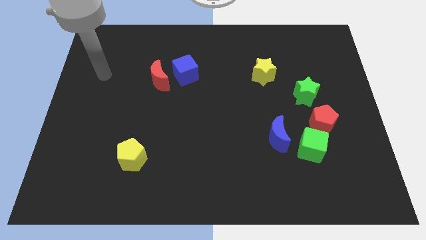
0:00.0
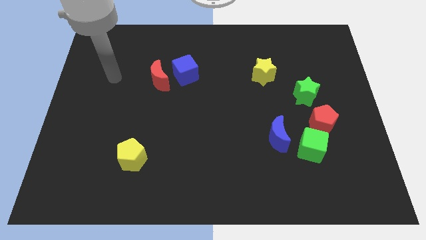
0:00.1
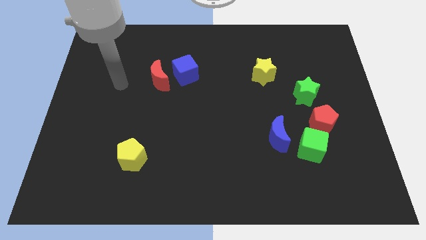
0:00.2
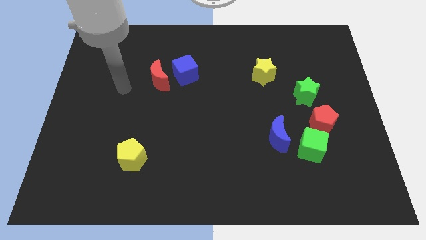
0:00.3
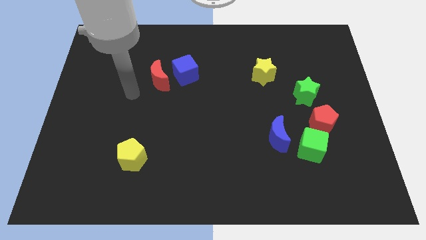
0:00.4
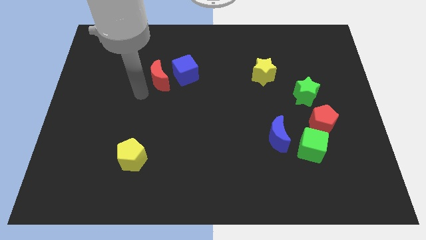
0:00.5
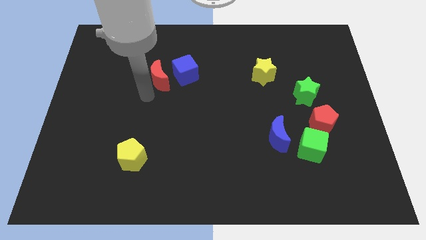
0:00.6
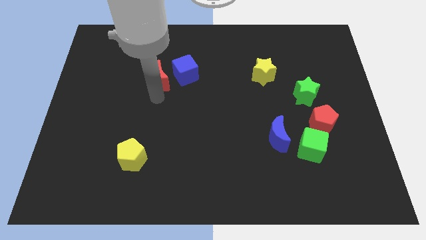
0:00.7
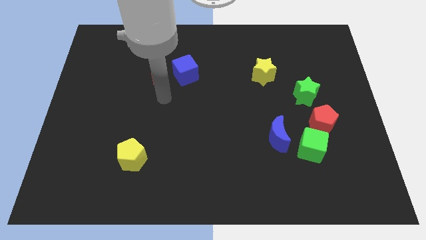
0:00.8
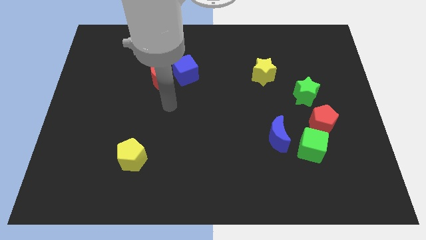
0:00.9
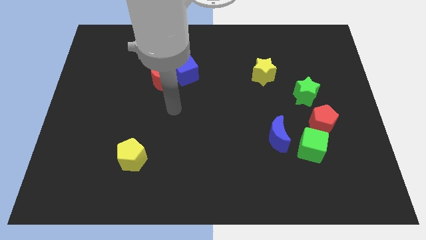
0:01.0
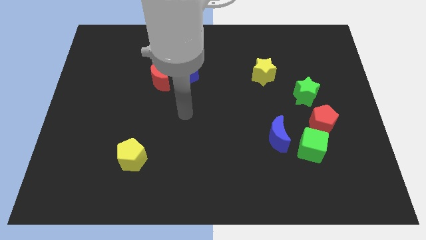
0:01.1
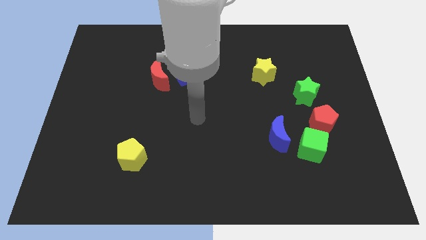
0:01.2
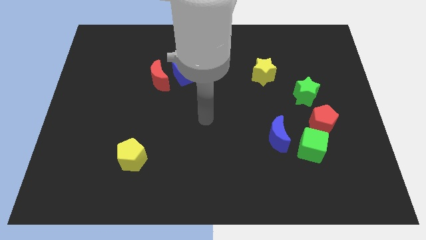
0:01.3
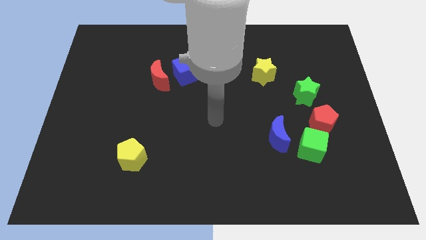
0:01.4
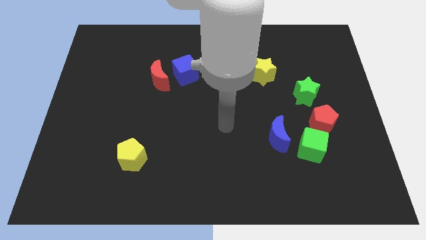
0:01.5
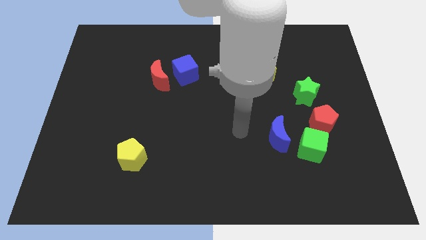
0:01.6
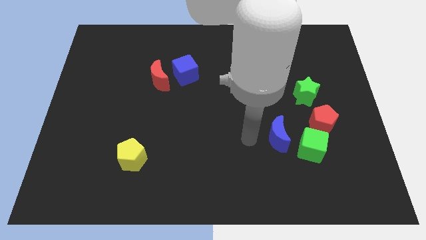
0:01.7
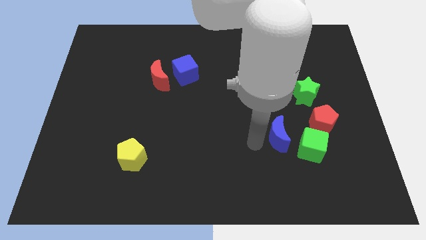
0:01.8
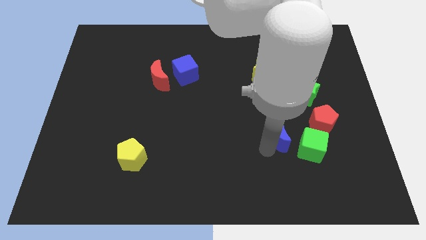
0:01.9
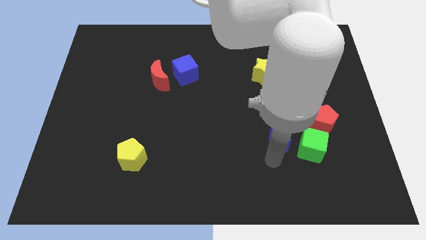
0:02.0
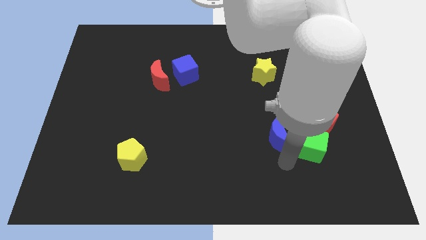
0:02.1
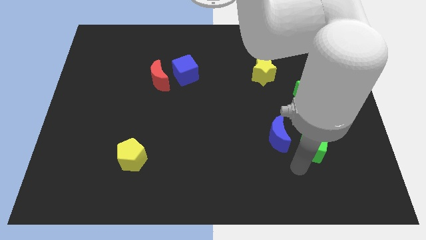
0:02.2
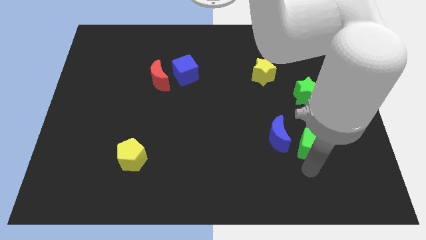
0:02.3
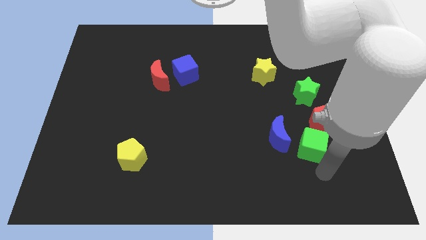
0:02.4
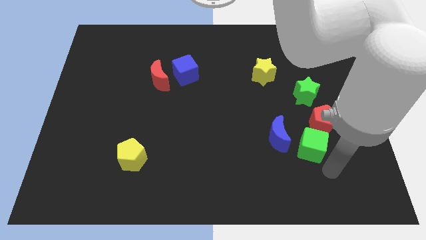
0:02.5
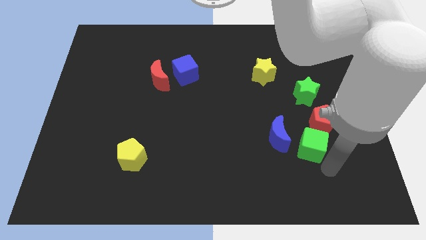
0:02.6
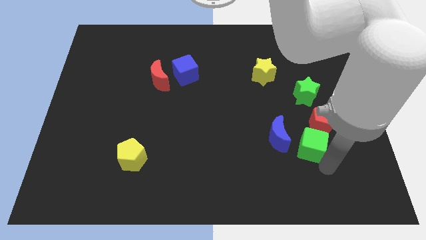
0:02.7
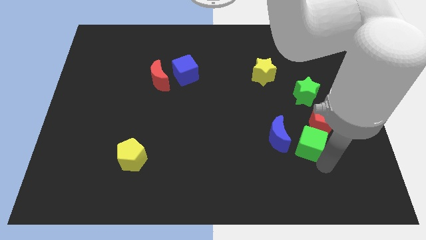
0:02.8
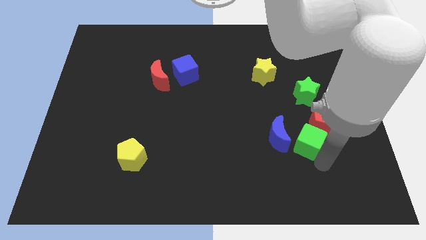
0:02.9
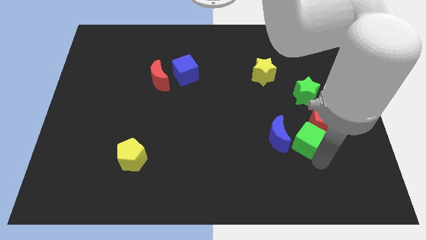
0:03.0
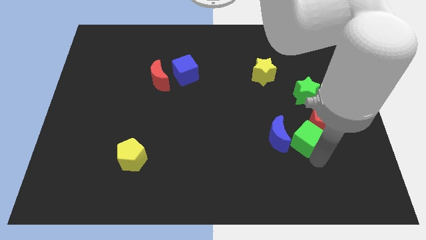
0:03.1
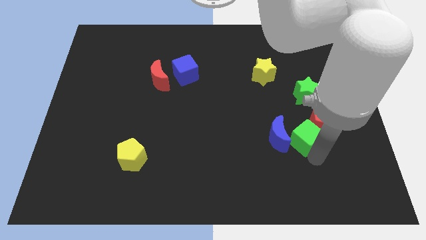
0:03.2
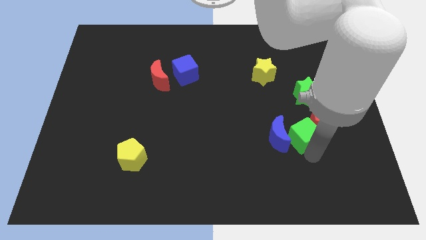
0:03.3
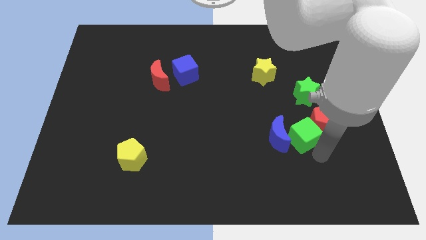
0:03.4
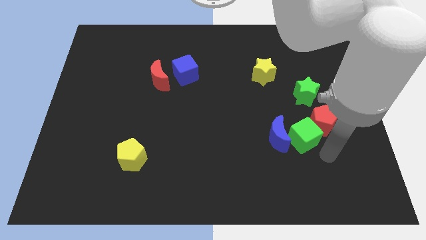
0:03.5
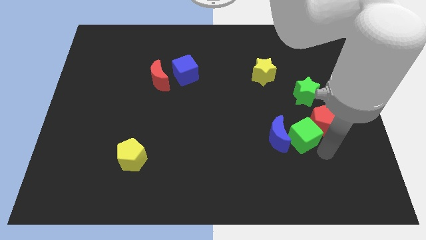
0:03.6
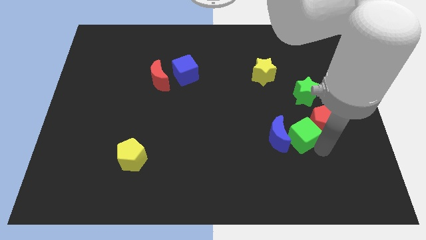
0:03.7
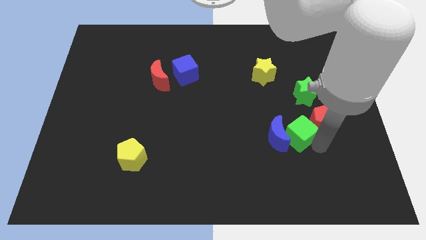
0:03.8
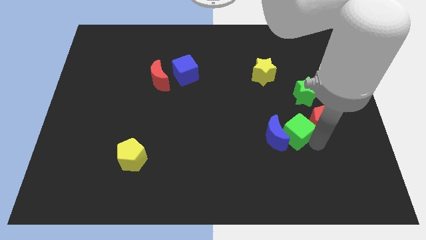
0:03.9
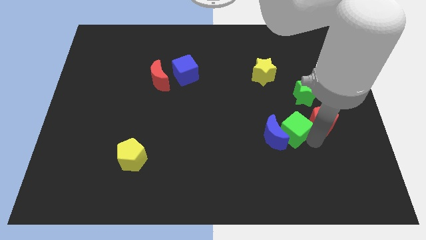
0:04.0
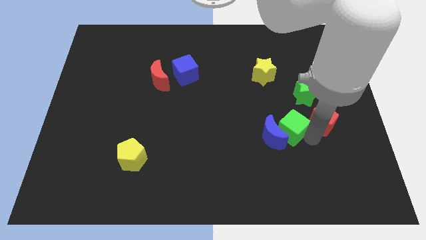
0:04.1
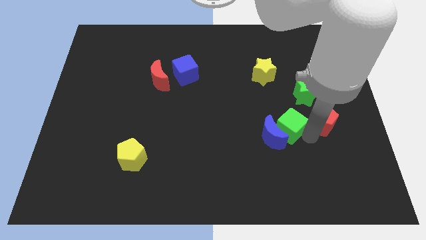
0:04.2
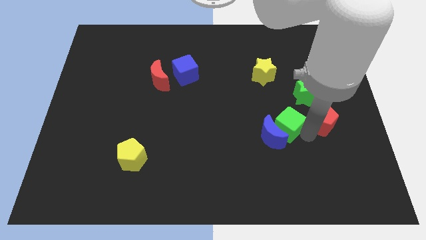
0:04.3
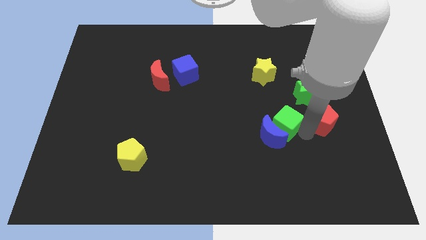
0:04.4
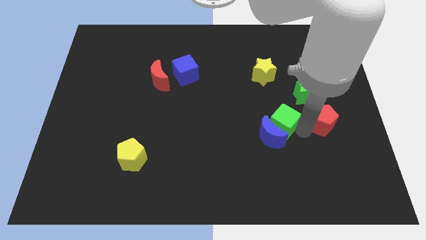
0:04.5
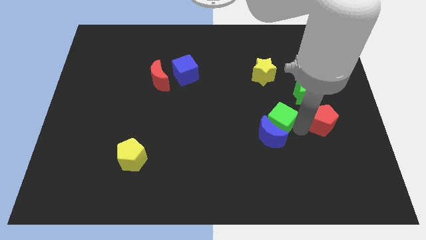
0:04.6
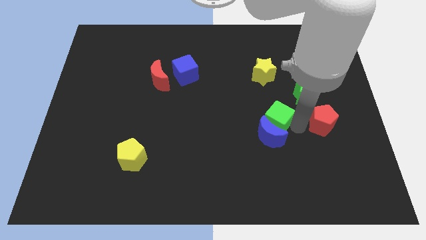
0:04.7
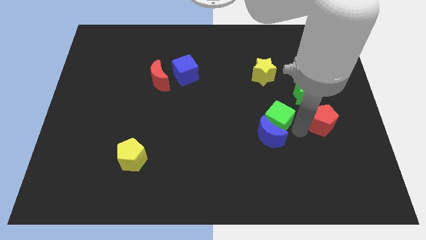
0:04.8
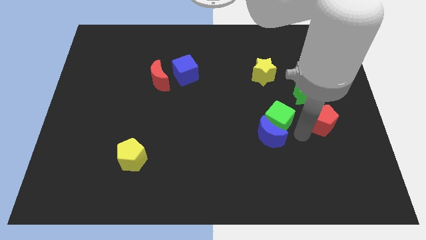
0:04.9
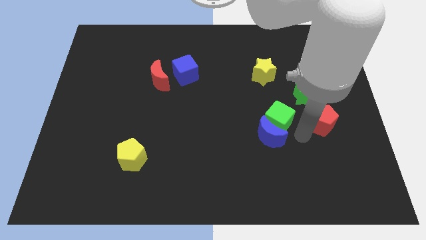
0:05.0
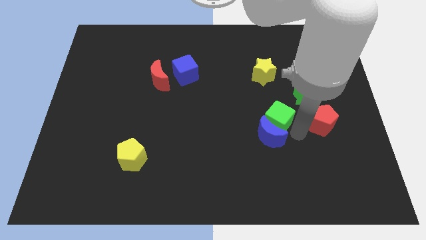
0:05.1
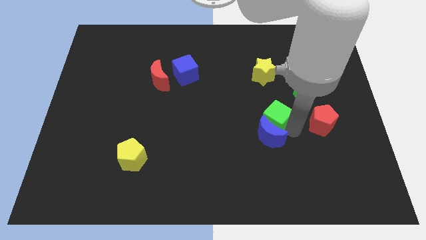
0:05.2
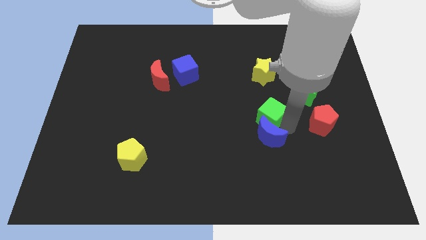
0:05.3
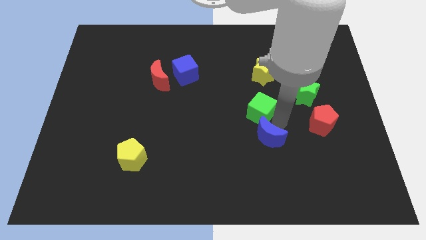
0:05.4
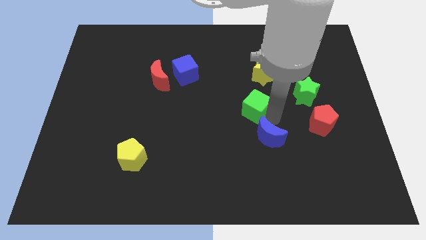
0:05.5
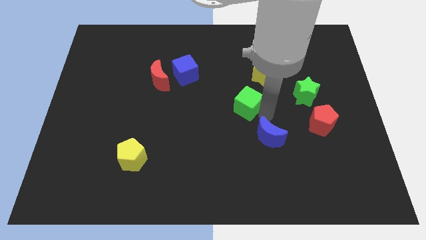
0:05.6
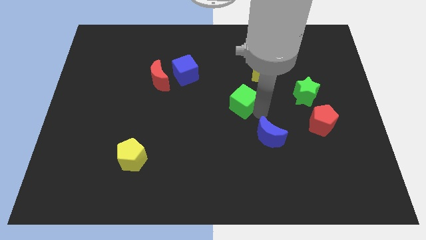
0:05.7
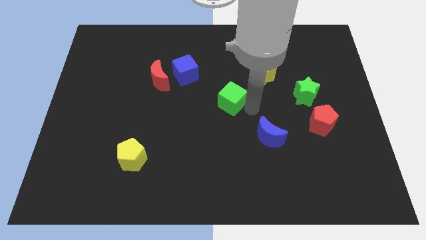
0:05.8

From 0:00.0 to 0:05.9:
move the green cube upwards and left diagonally

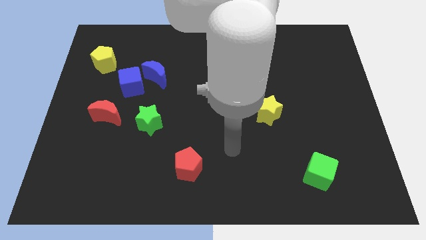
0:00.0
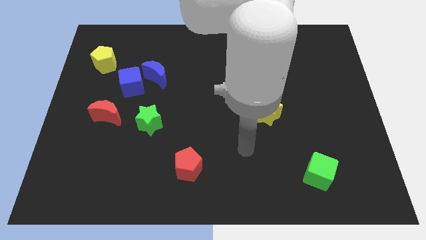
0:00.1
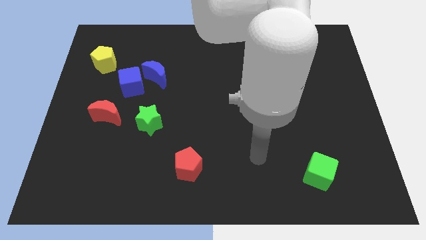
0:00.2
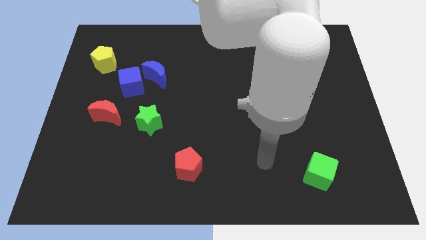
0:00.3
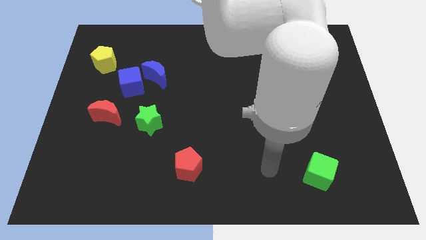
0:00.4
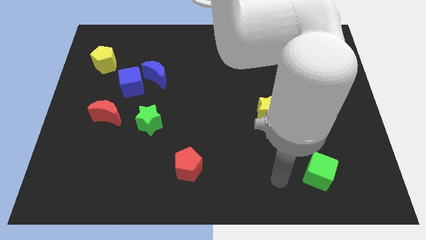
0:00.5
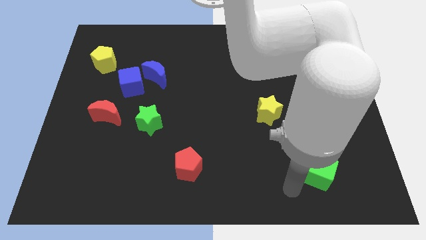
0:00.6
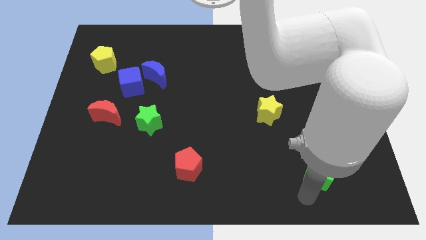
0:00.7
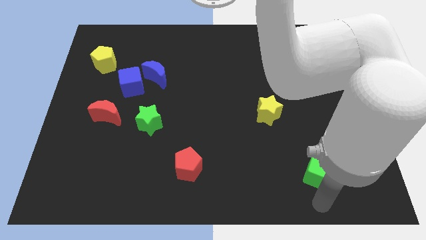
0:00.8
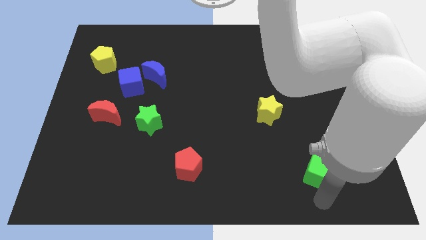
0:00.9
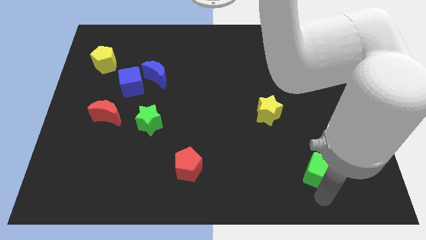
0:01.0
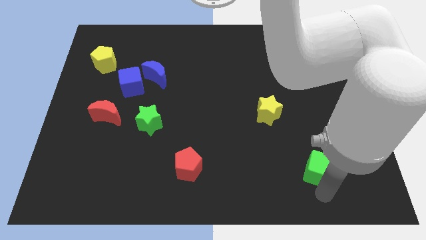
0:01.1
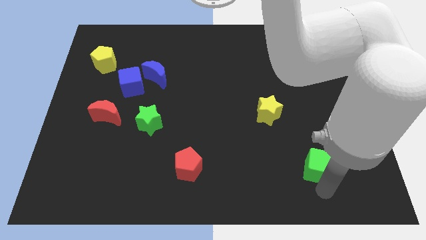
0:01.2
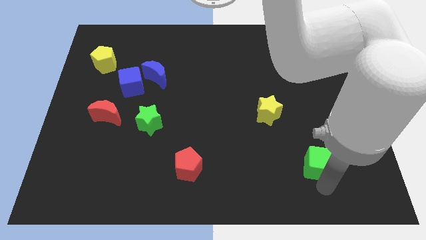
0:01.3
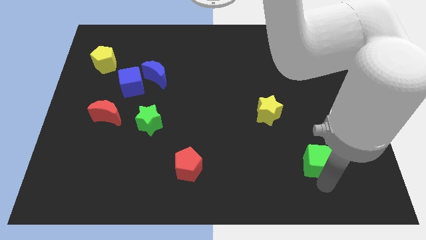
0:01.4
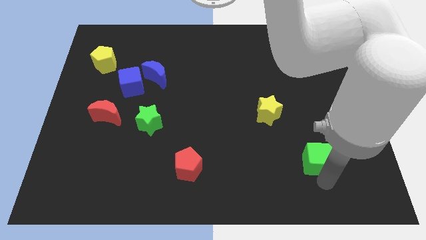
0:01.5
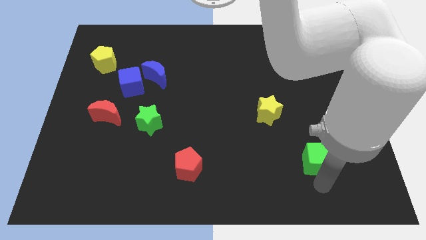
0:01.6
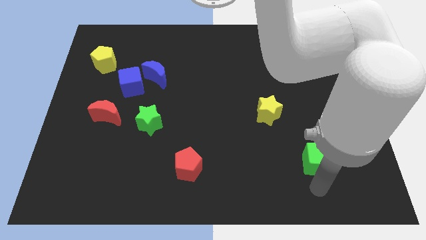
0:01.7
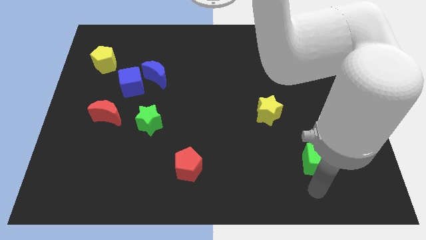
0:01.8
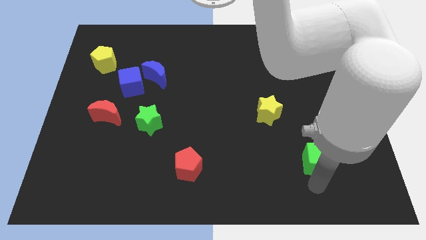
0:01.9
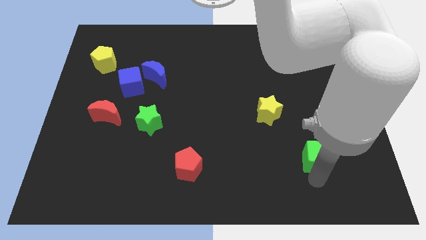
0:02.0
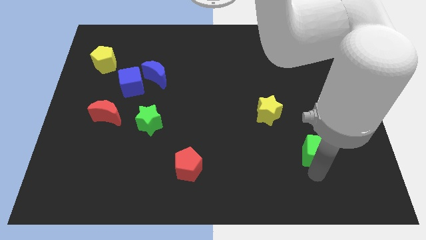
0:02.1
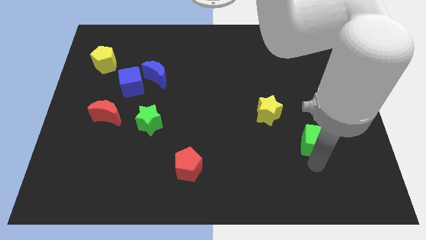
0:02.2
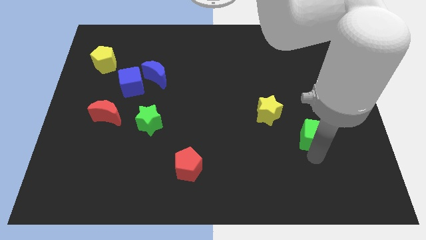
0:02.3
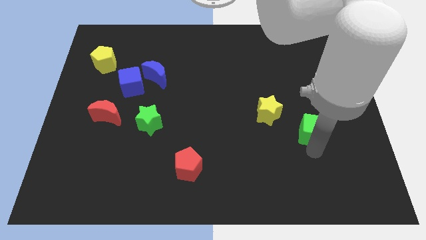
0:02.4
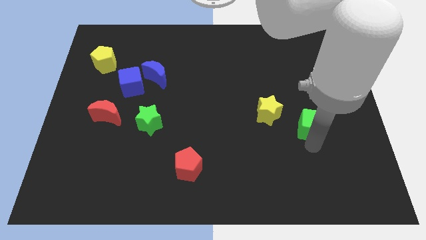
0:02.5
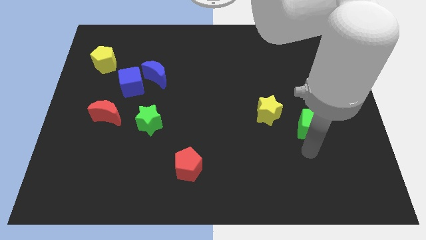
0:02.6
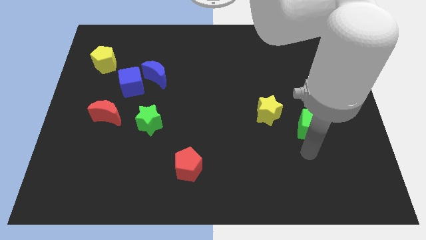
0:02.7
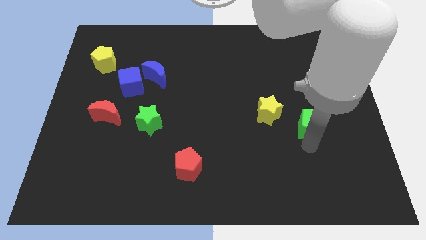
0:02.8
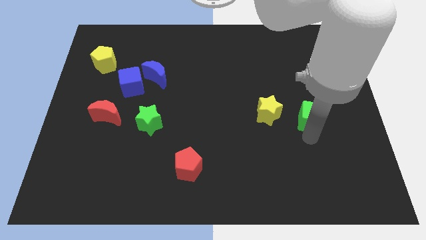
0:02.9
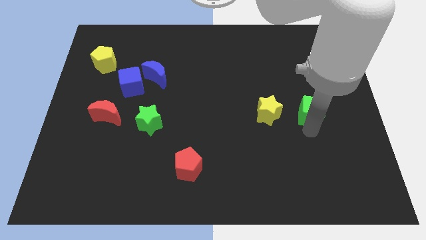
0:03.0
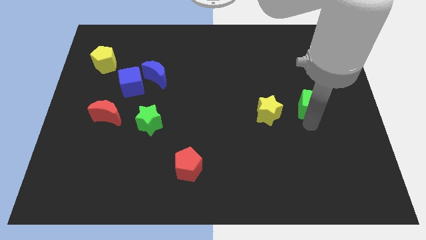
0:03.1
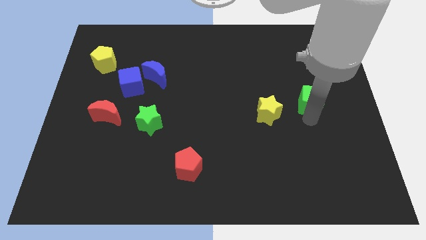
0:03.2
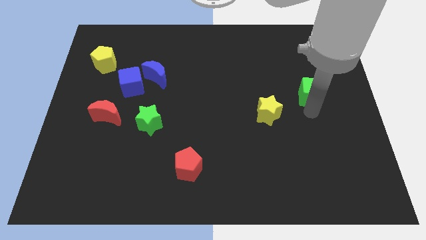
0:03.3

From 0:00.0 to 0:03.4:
push the green cube up
